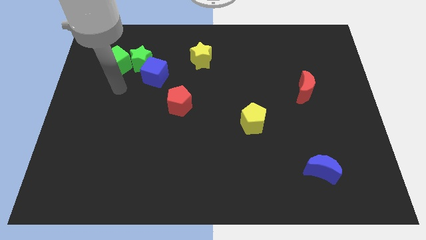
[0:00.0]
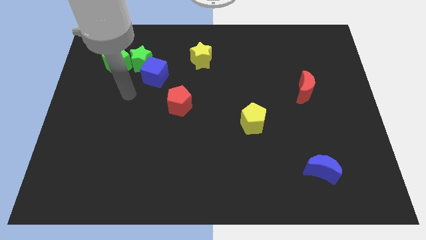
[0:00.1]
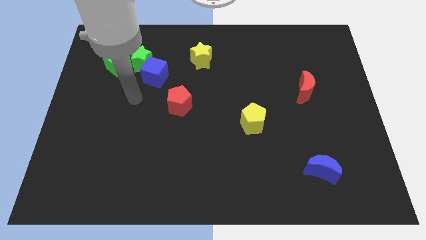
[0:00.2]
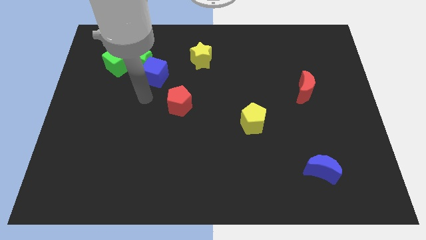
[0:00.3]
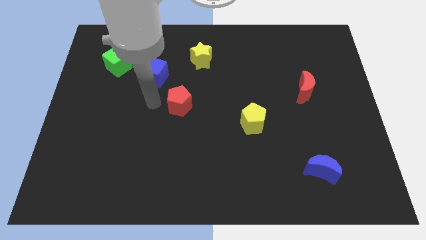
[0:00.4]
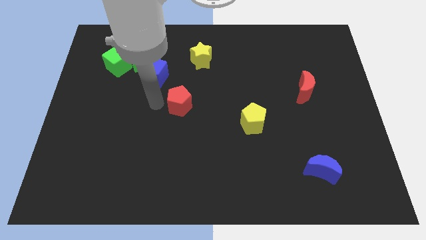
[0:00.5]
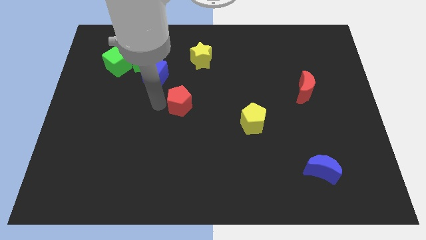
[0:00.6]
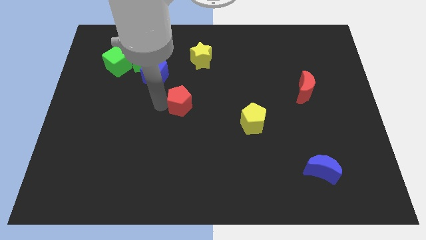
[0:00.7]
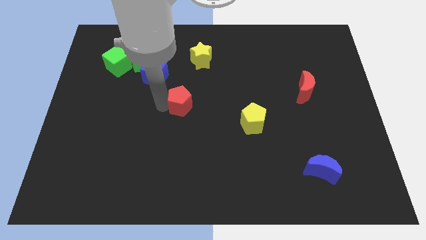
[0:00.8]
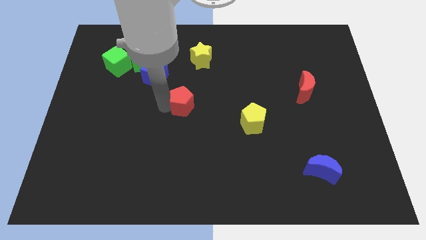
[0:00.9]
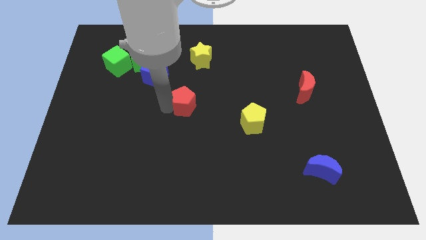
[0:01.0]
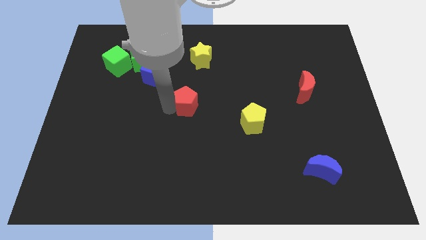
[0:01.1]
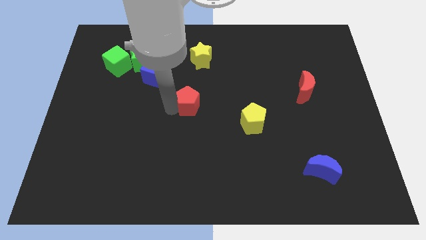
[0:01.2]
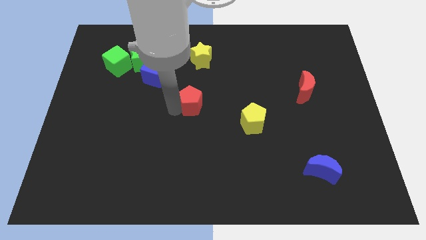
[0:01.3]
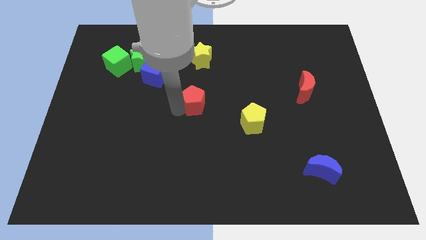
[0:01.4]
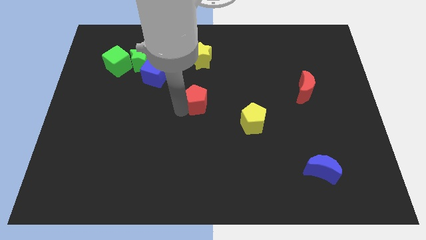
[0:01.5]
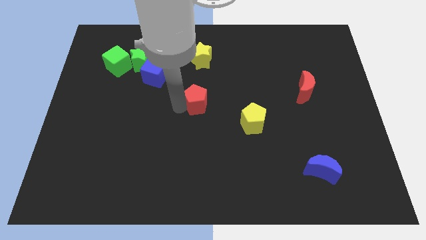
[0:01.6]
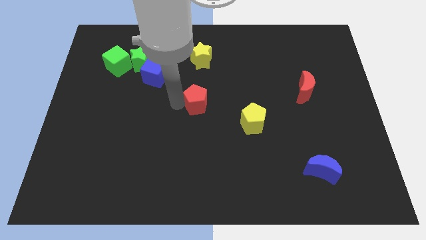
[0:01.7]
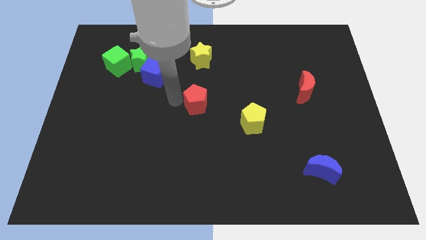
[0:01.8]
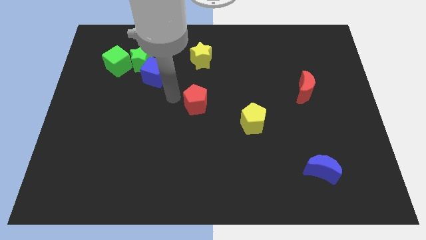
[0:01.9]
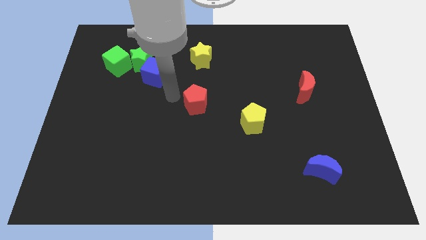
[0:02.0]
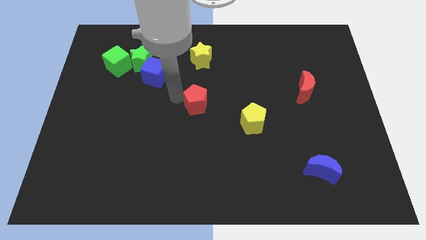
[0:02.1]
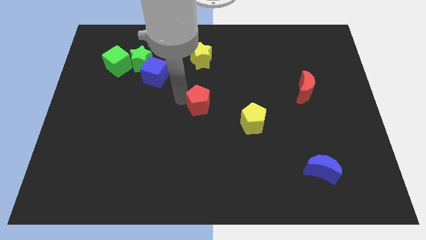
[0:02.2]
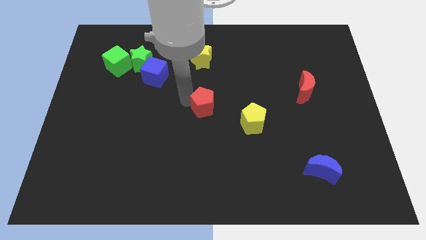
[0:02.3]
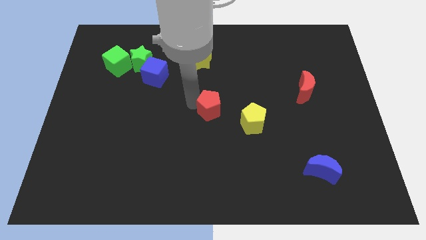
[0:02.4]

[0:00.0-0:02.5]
slide the red pentagon right a little bit

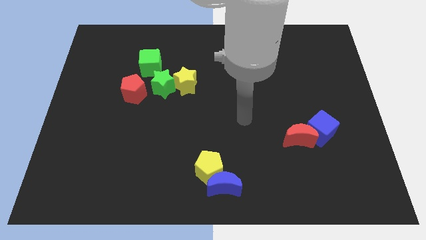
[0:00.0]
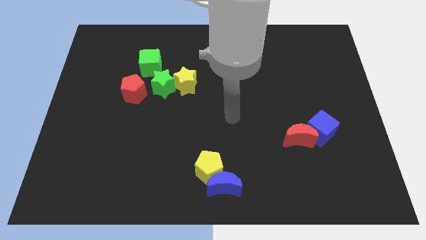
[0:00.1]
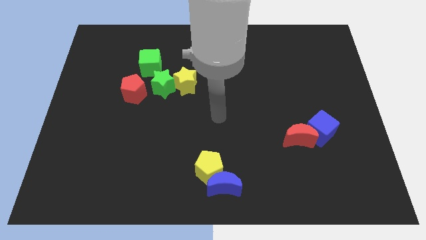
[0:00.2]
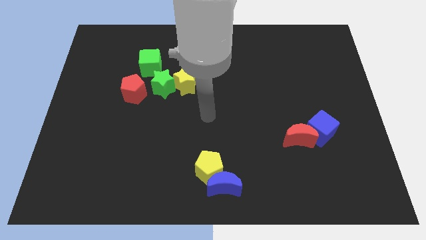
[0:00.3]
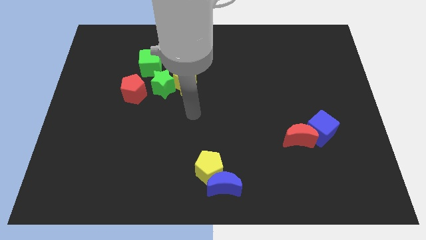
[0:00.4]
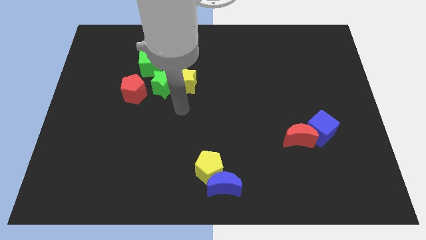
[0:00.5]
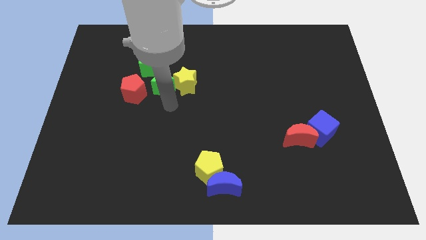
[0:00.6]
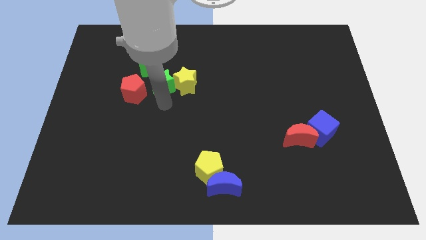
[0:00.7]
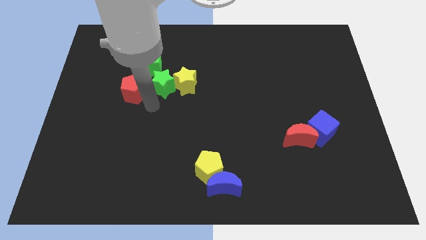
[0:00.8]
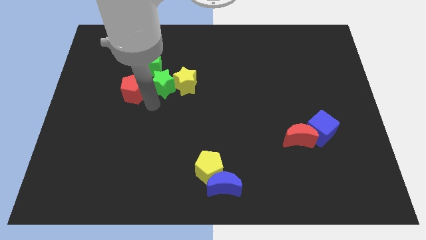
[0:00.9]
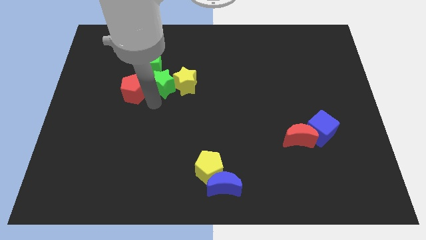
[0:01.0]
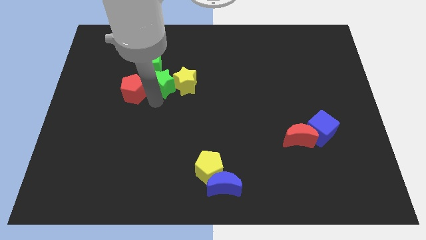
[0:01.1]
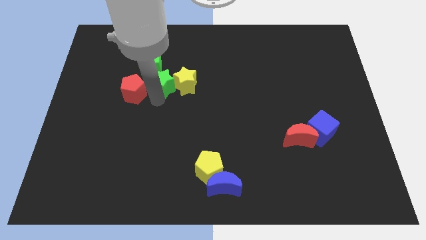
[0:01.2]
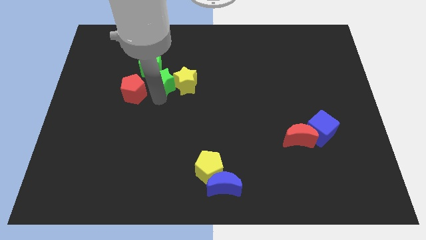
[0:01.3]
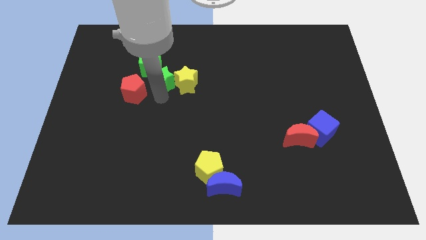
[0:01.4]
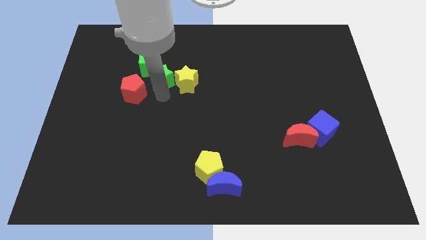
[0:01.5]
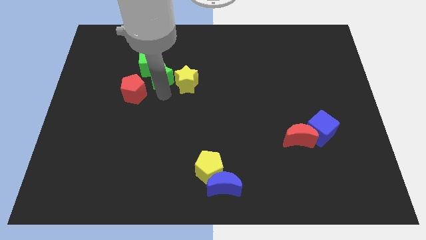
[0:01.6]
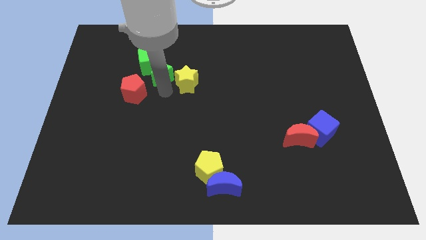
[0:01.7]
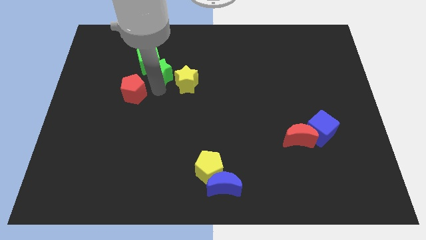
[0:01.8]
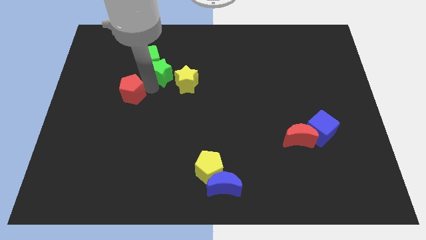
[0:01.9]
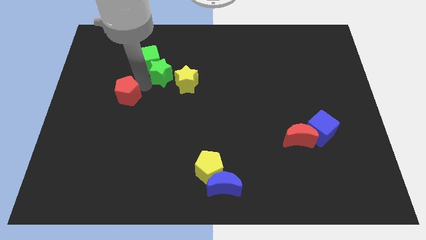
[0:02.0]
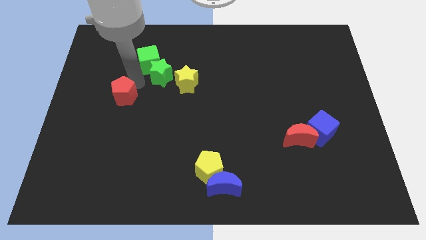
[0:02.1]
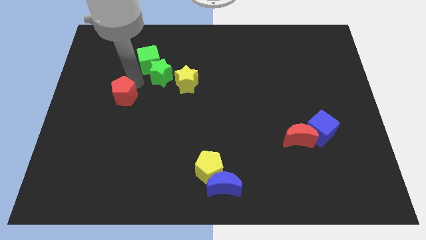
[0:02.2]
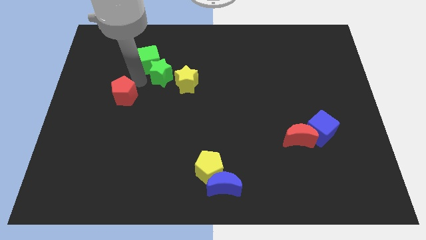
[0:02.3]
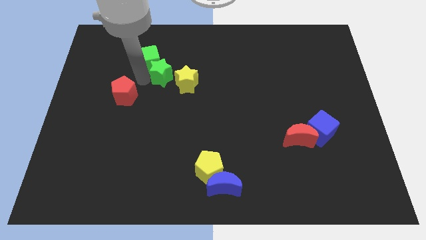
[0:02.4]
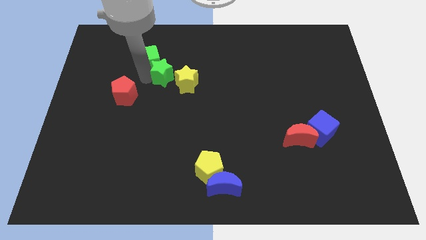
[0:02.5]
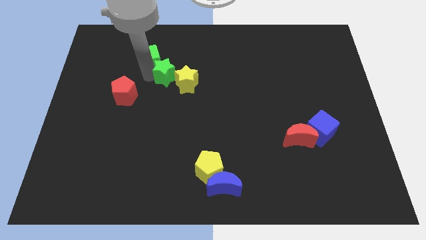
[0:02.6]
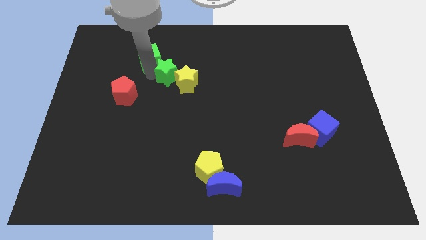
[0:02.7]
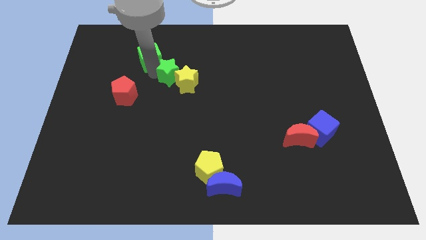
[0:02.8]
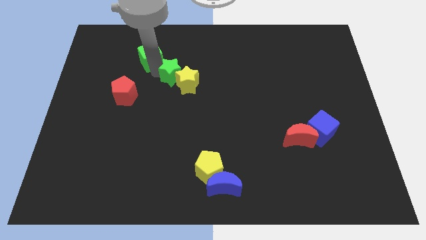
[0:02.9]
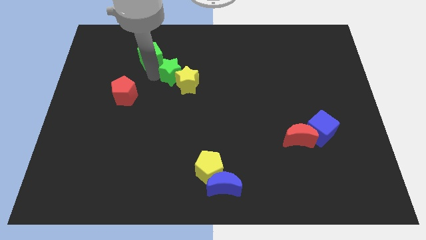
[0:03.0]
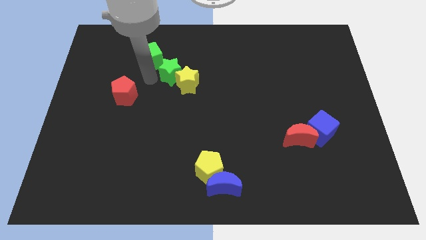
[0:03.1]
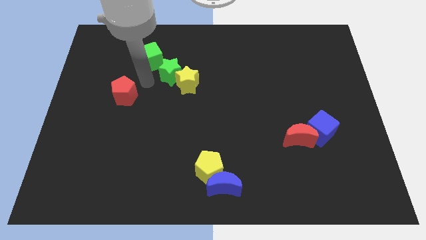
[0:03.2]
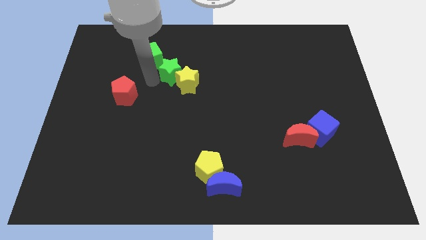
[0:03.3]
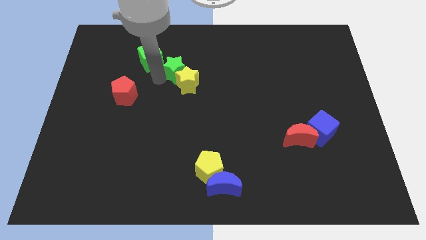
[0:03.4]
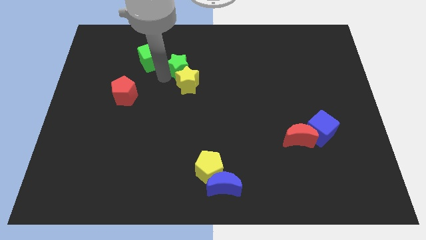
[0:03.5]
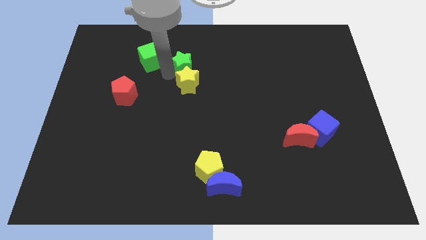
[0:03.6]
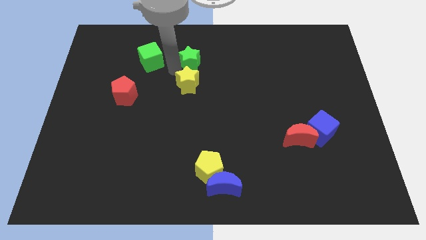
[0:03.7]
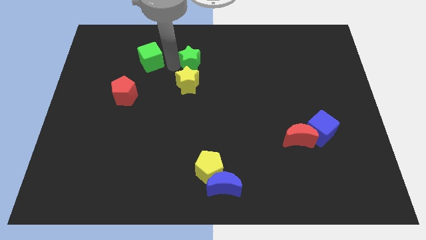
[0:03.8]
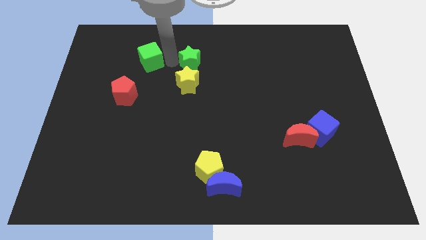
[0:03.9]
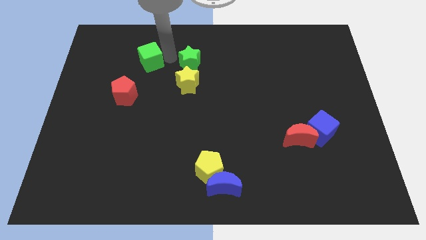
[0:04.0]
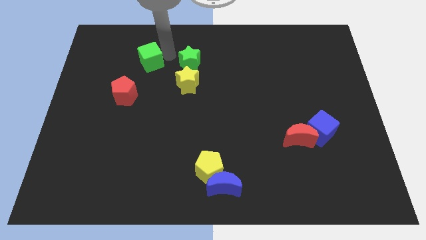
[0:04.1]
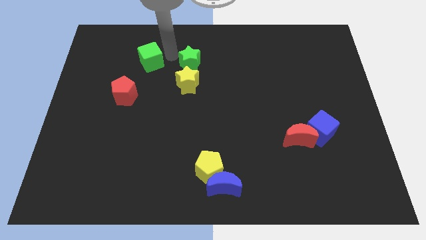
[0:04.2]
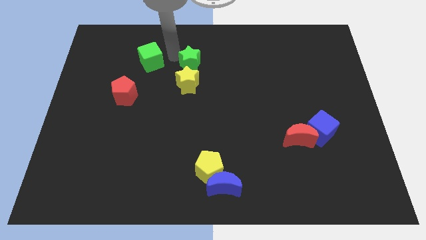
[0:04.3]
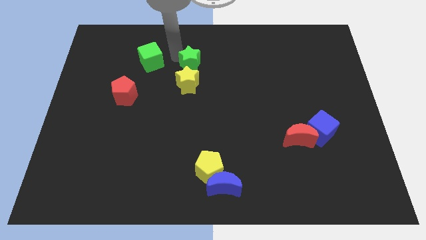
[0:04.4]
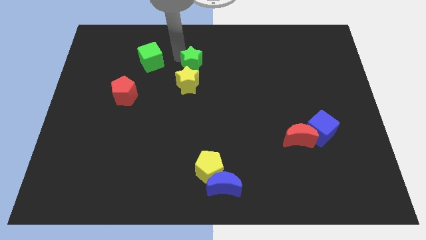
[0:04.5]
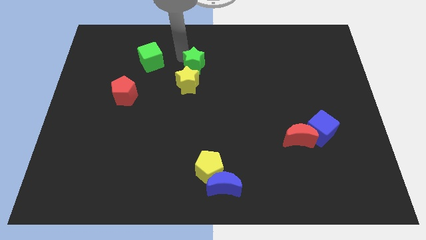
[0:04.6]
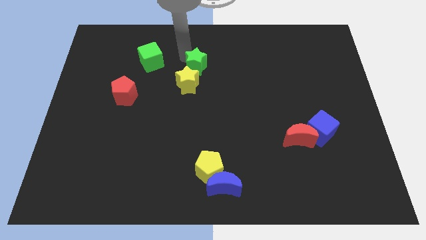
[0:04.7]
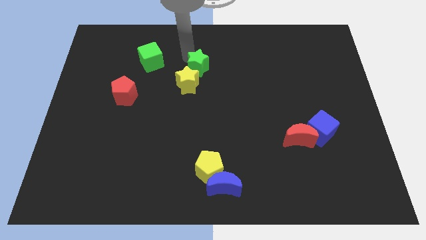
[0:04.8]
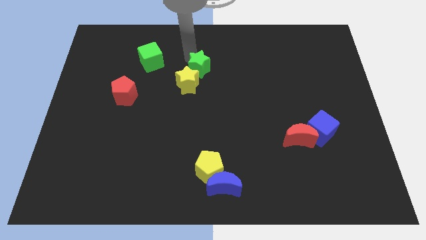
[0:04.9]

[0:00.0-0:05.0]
slightly slide the green star right

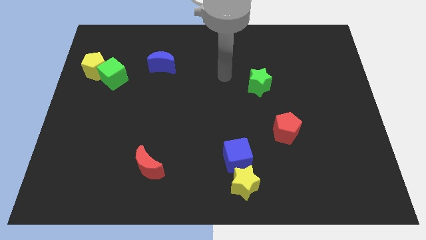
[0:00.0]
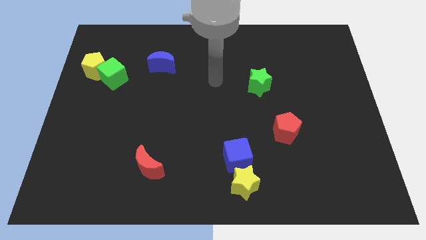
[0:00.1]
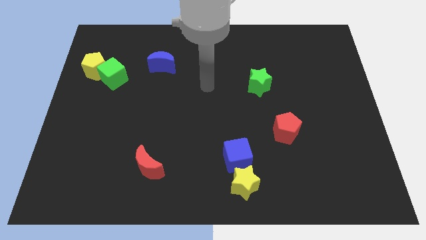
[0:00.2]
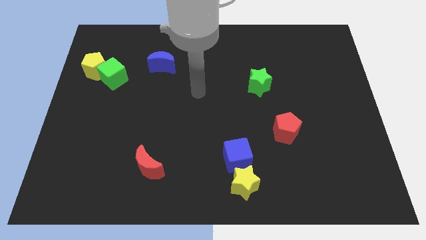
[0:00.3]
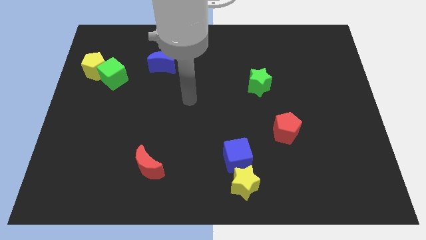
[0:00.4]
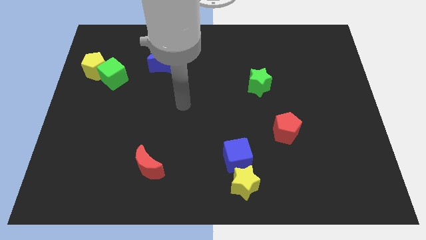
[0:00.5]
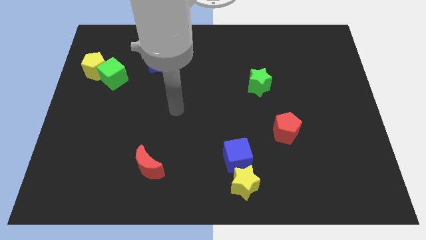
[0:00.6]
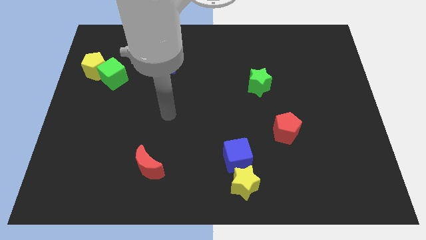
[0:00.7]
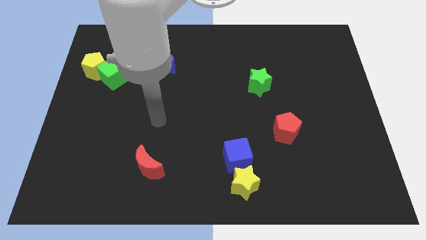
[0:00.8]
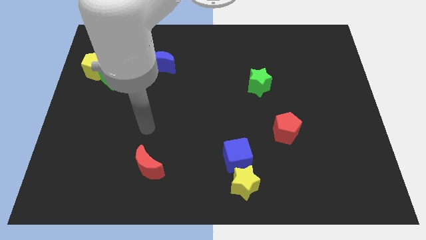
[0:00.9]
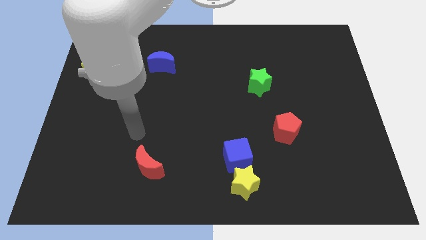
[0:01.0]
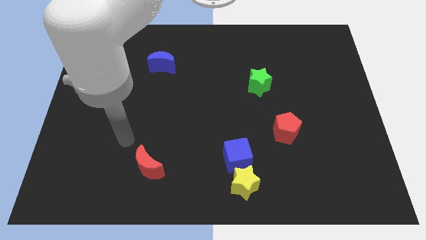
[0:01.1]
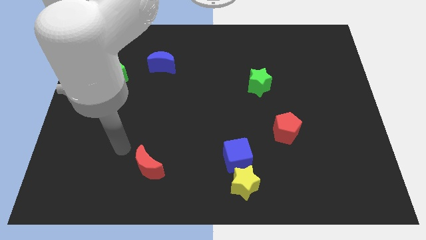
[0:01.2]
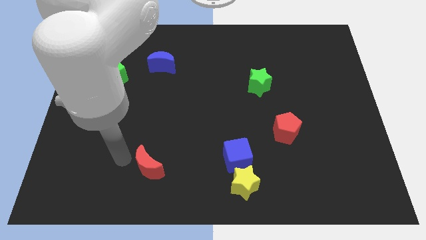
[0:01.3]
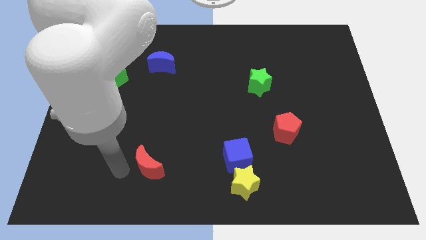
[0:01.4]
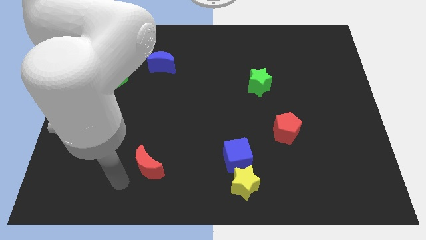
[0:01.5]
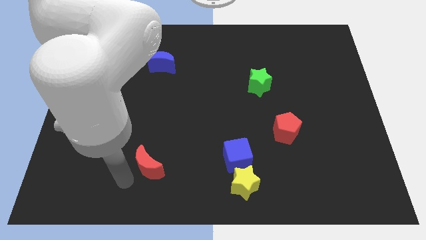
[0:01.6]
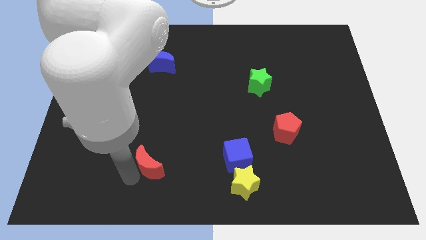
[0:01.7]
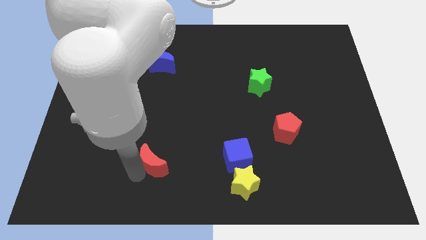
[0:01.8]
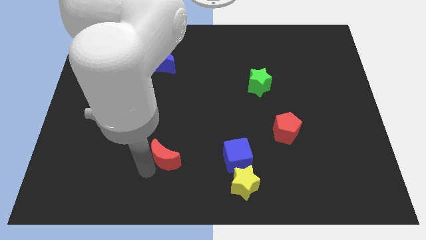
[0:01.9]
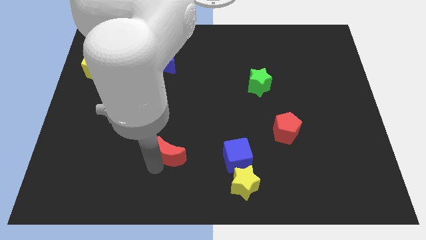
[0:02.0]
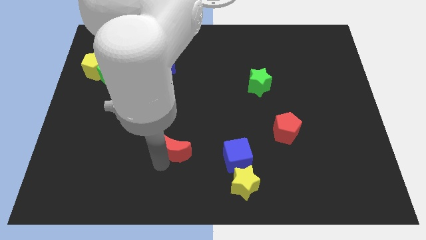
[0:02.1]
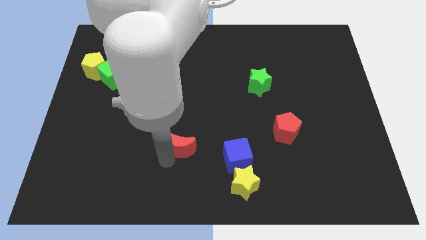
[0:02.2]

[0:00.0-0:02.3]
slide the red moon a little bit upwards and right diagonally
